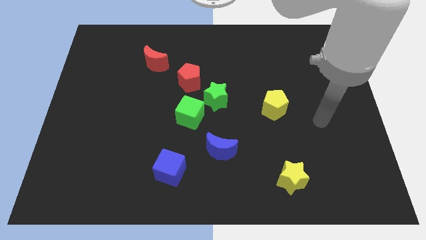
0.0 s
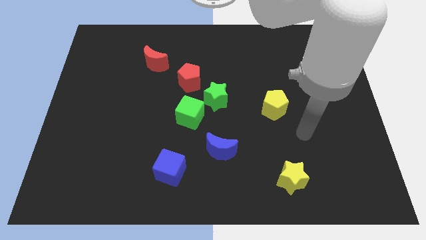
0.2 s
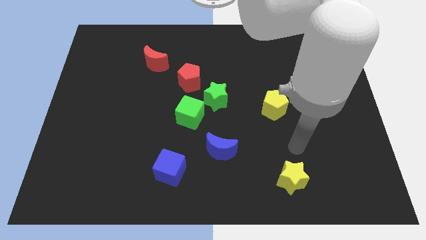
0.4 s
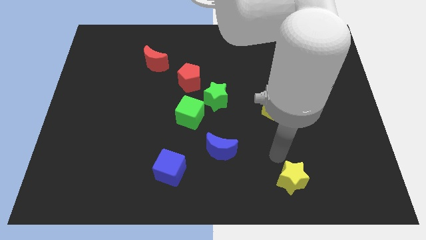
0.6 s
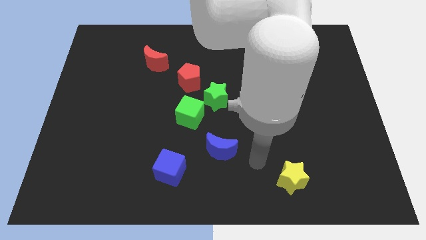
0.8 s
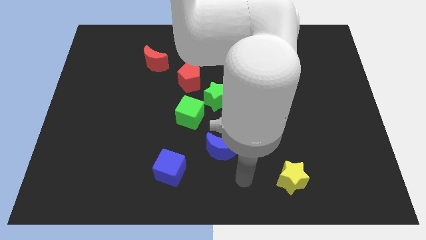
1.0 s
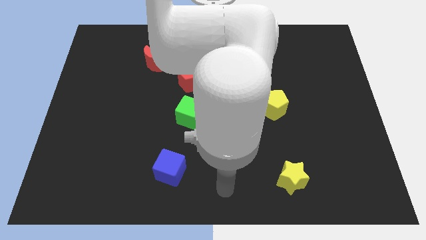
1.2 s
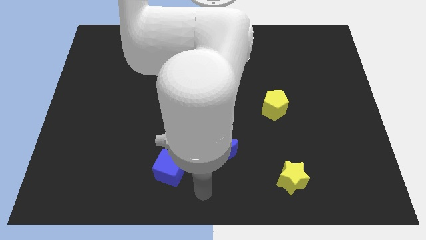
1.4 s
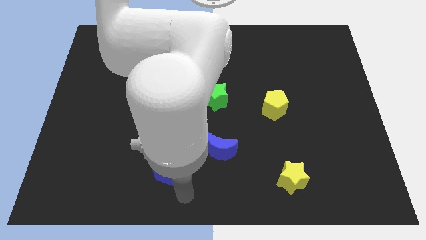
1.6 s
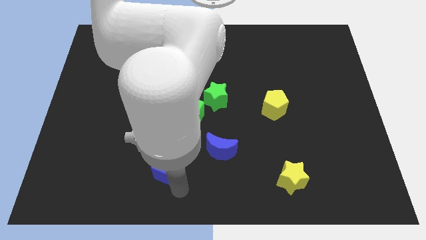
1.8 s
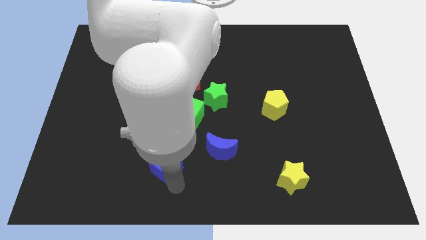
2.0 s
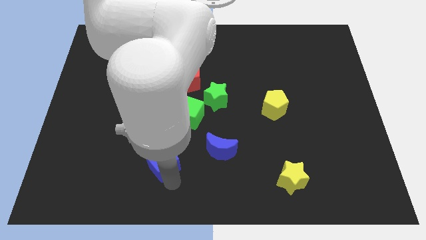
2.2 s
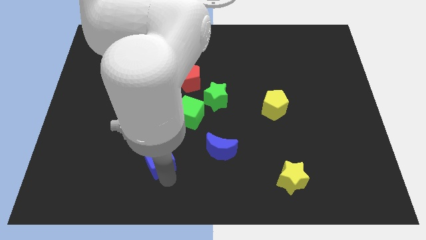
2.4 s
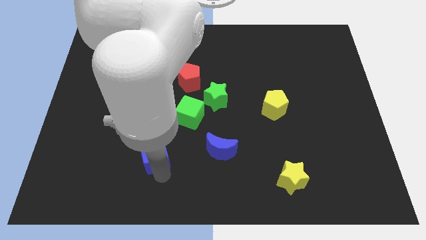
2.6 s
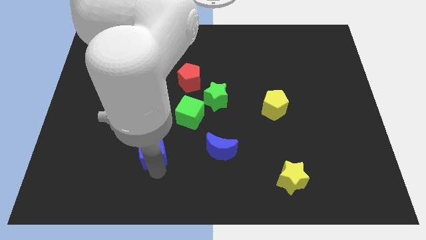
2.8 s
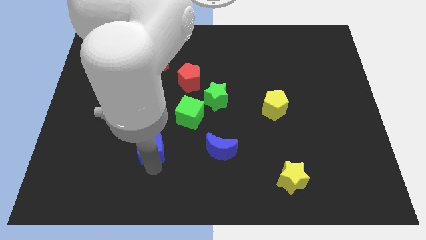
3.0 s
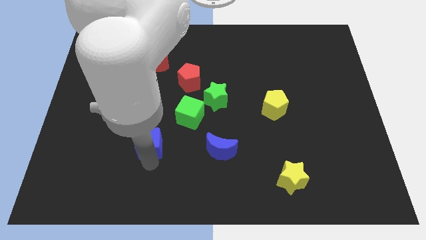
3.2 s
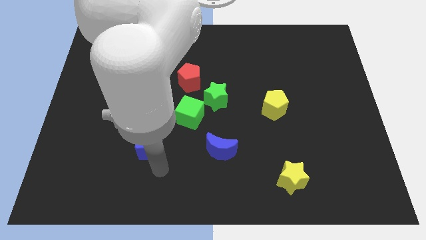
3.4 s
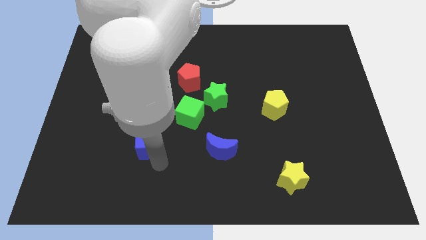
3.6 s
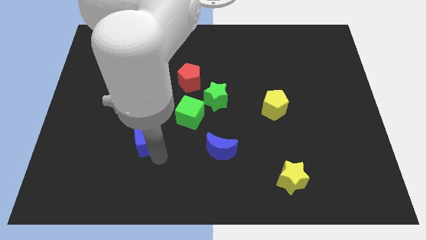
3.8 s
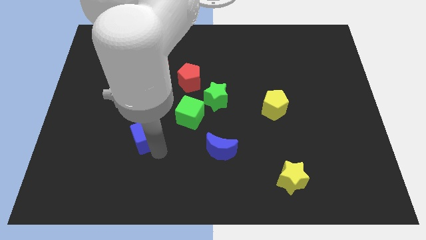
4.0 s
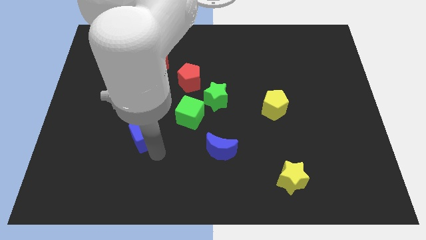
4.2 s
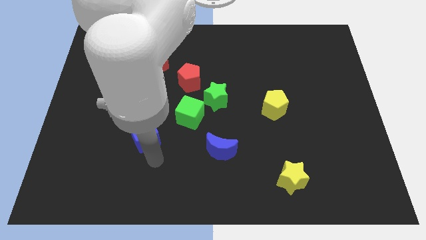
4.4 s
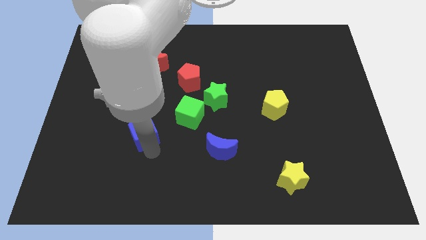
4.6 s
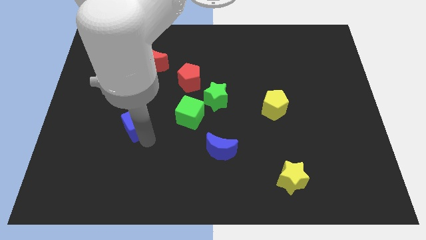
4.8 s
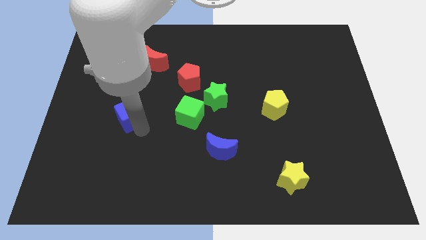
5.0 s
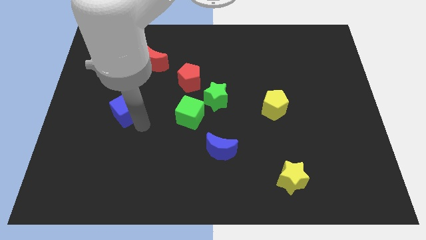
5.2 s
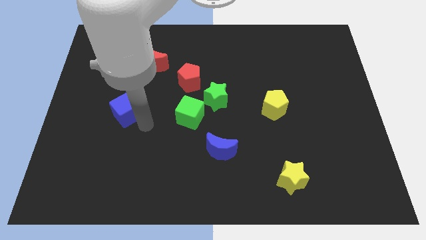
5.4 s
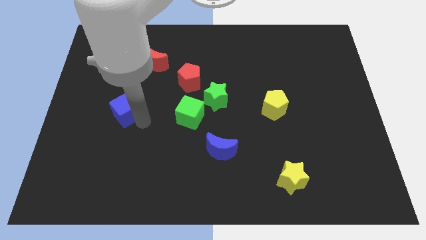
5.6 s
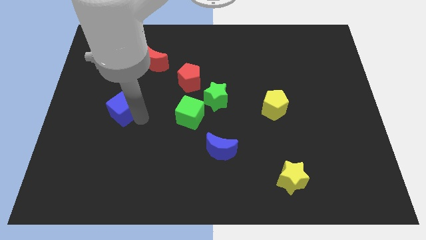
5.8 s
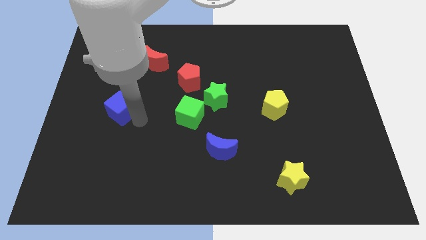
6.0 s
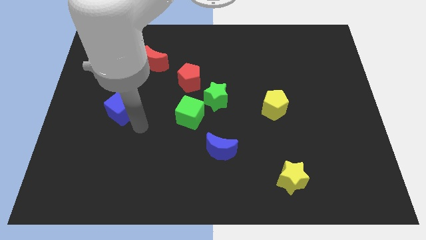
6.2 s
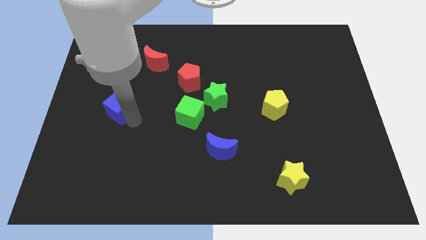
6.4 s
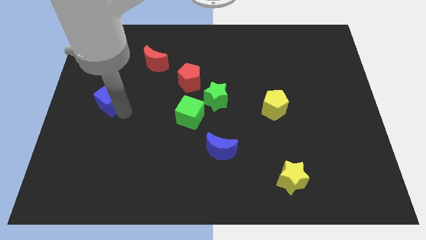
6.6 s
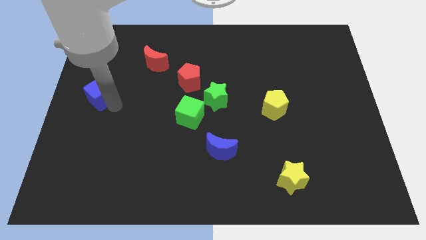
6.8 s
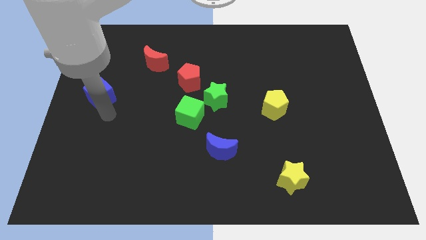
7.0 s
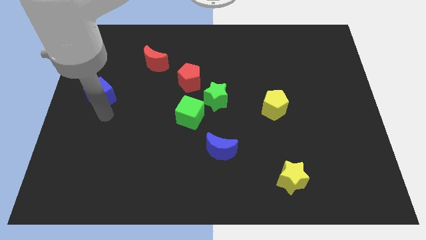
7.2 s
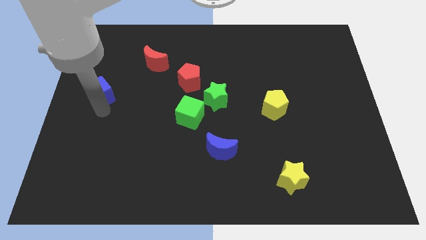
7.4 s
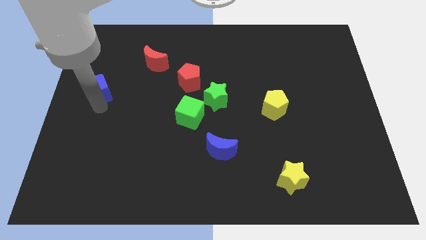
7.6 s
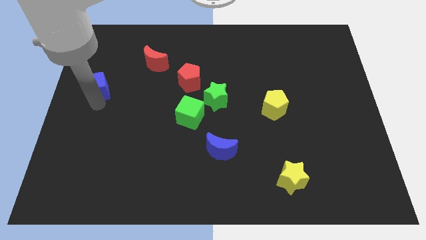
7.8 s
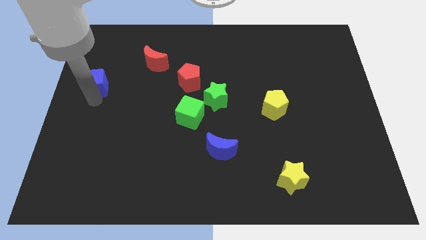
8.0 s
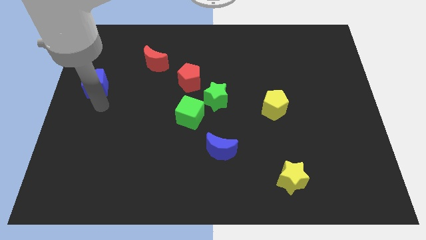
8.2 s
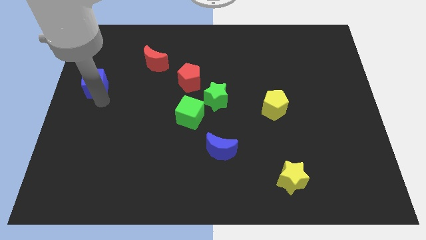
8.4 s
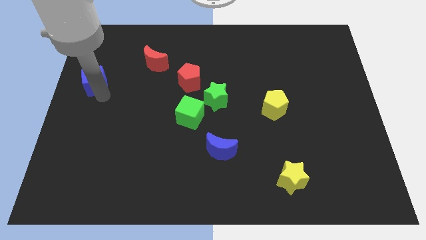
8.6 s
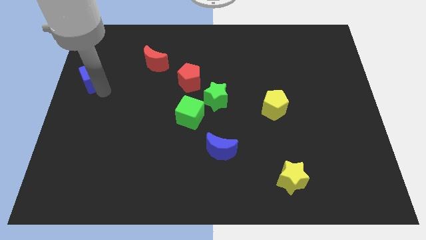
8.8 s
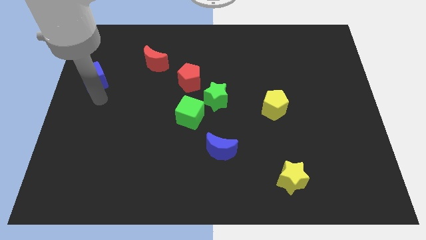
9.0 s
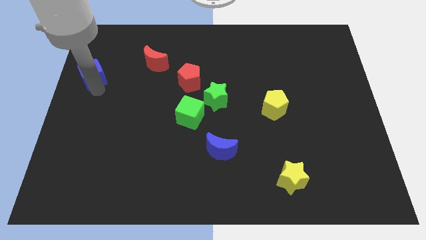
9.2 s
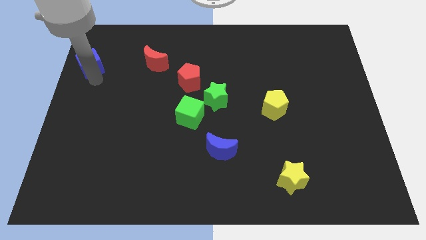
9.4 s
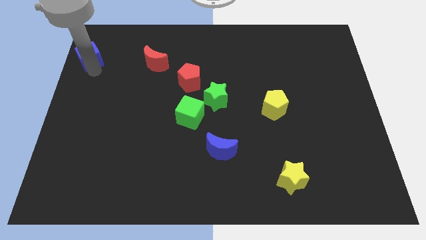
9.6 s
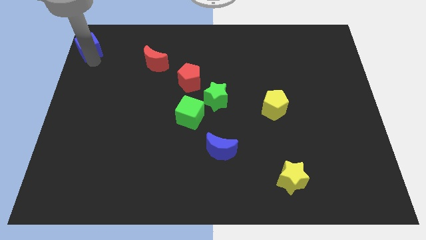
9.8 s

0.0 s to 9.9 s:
slide the blue cube to the top left of the board

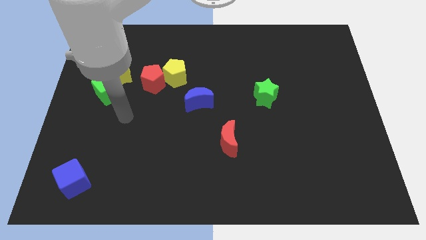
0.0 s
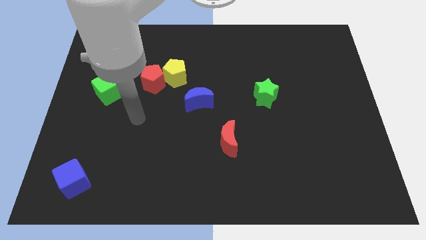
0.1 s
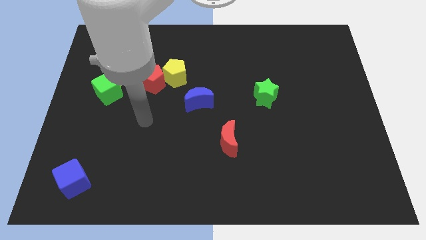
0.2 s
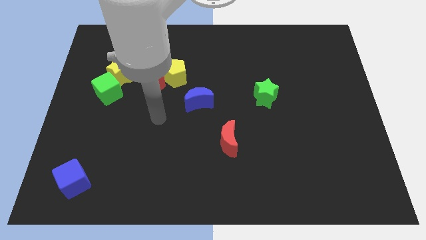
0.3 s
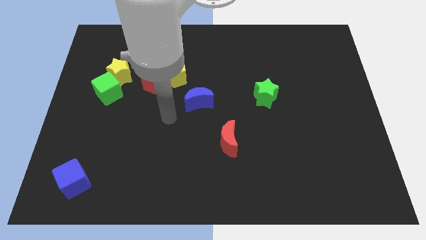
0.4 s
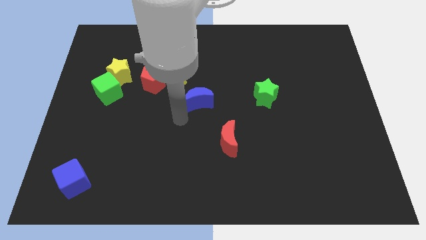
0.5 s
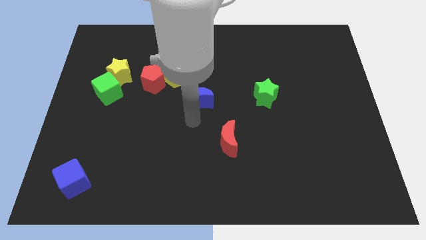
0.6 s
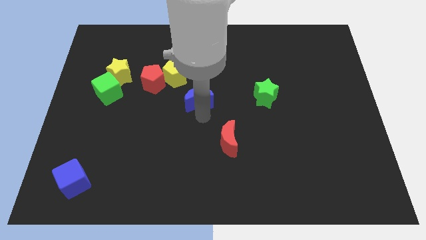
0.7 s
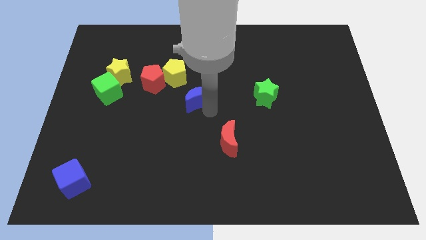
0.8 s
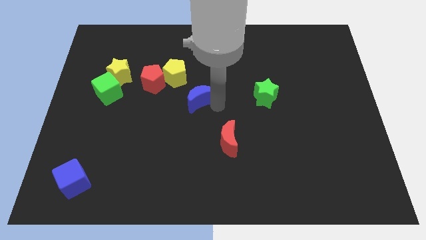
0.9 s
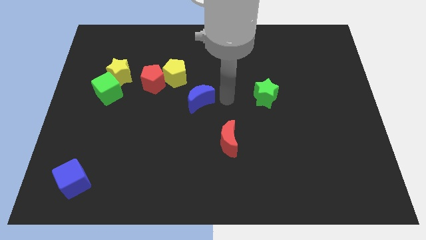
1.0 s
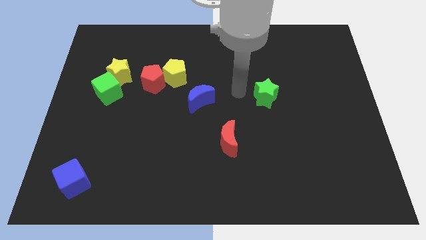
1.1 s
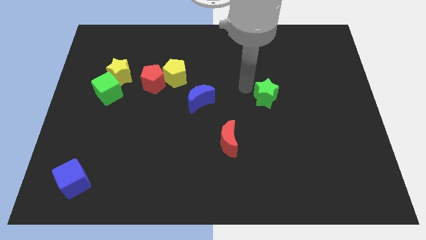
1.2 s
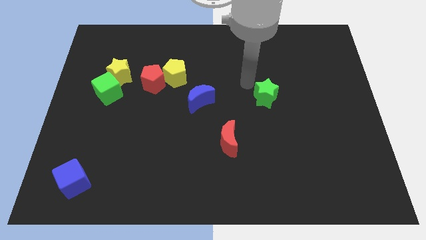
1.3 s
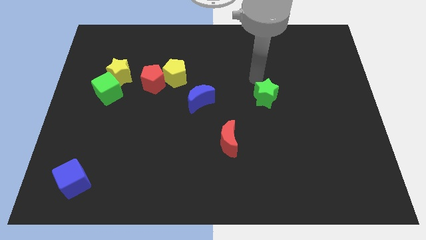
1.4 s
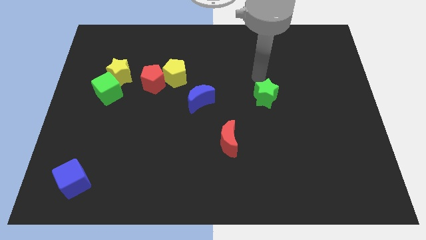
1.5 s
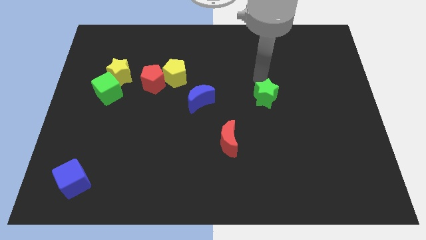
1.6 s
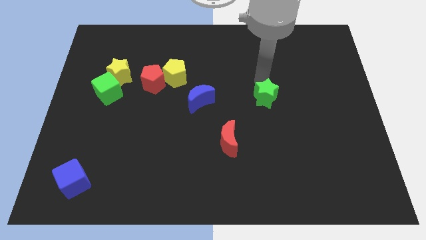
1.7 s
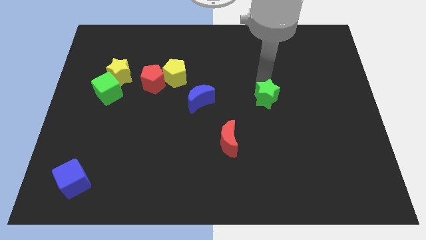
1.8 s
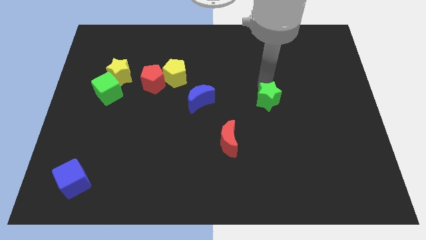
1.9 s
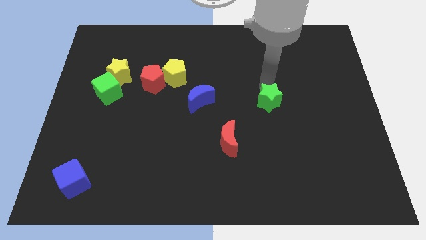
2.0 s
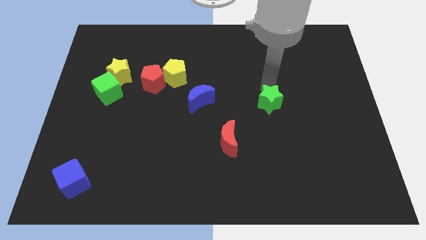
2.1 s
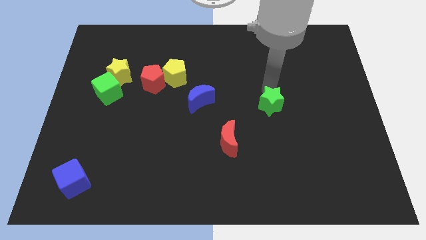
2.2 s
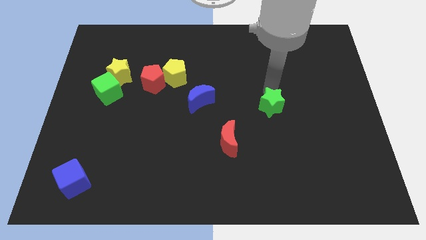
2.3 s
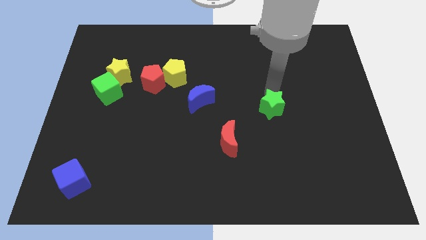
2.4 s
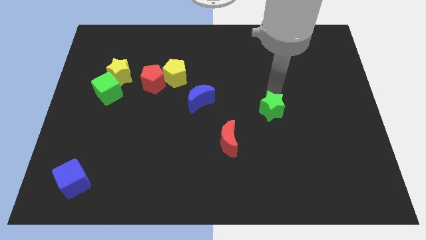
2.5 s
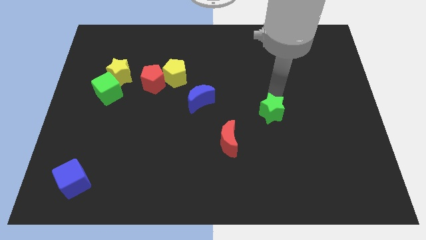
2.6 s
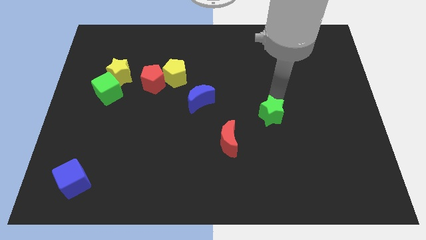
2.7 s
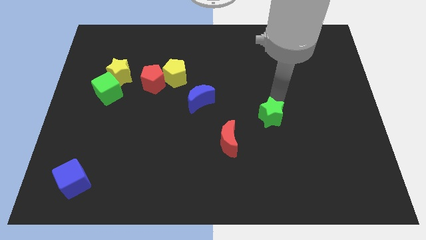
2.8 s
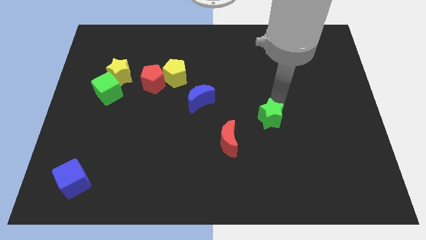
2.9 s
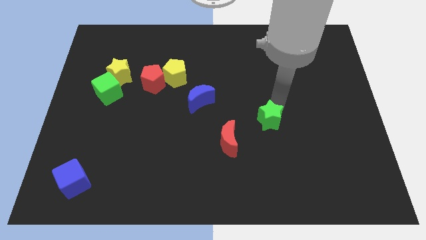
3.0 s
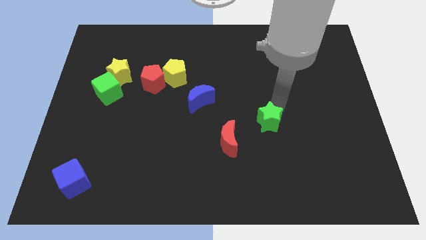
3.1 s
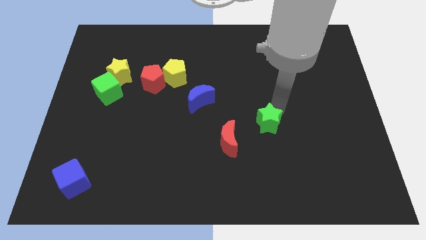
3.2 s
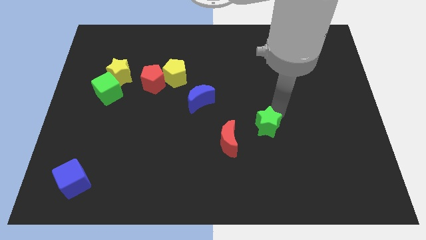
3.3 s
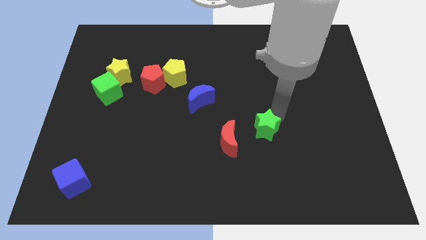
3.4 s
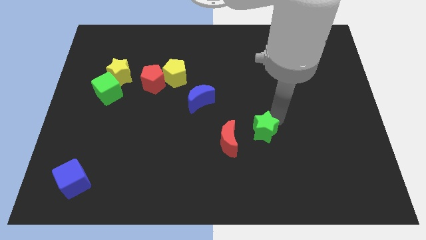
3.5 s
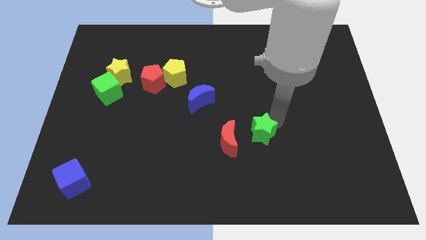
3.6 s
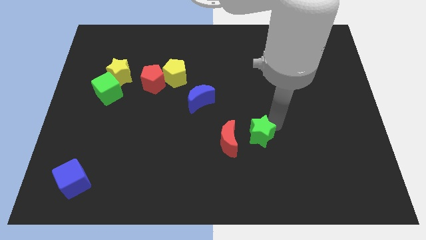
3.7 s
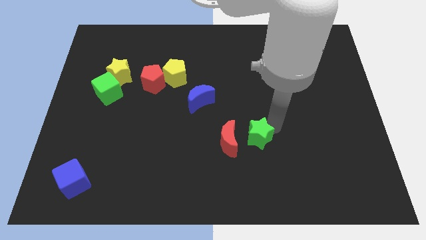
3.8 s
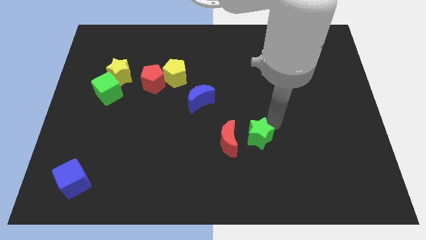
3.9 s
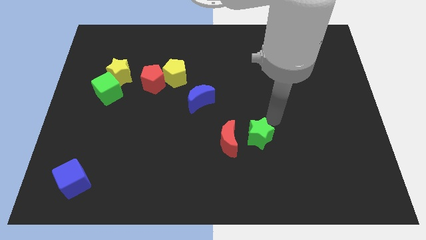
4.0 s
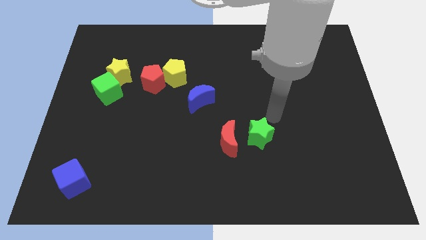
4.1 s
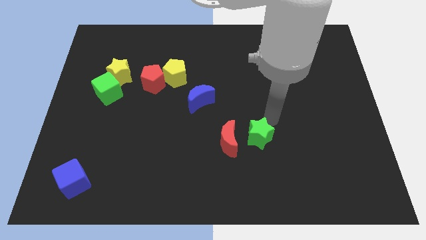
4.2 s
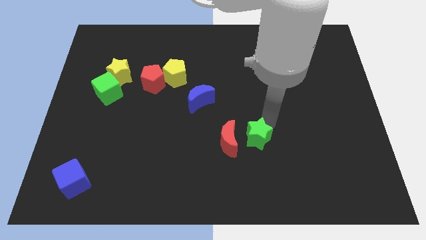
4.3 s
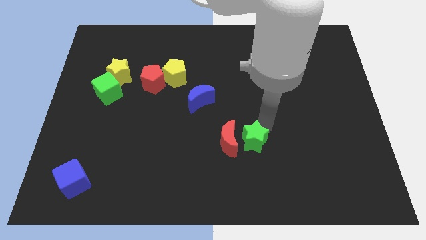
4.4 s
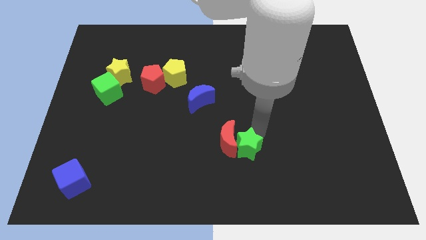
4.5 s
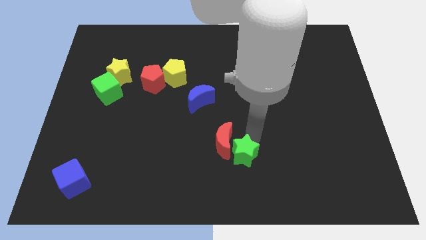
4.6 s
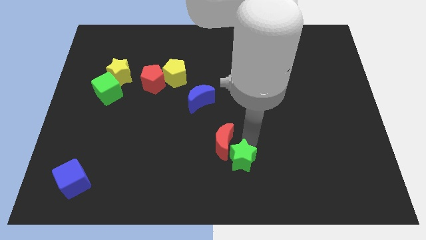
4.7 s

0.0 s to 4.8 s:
put the green star to the bottom
